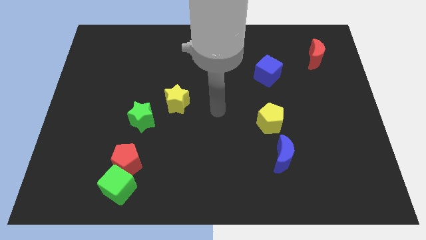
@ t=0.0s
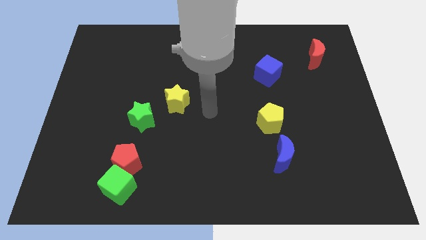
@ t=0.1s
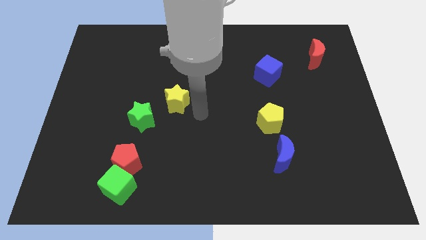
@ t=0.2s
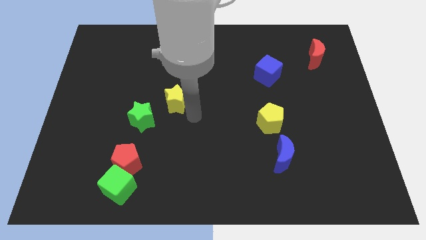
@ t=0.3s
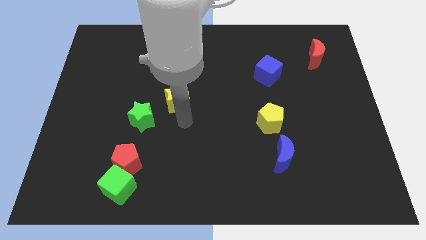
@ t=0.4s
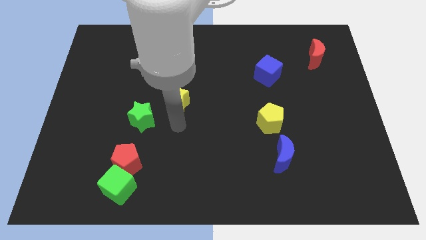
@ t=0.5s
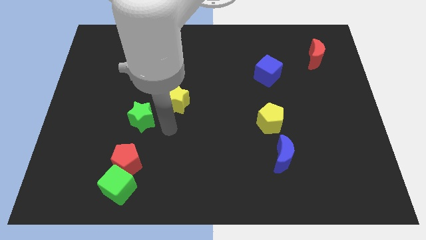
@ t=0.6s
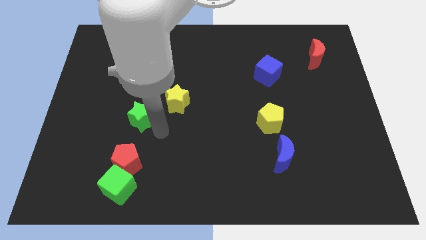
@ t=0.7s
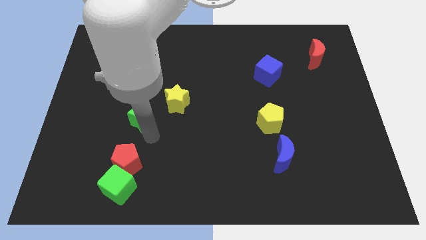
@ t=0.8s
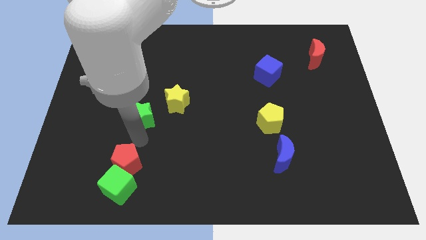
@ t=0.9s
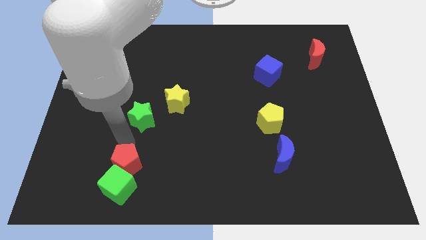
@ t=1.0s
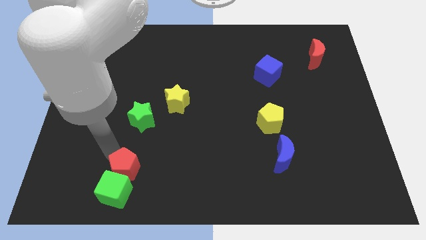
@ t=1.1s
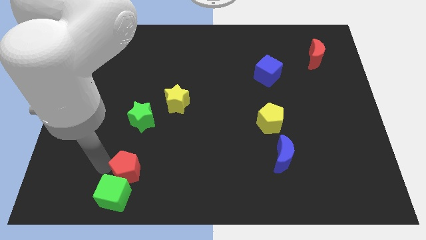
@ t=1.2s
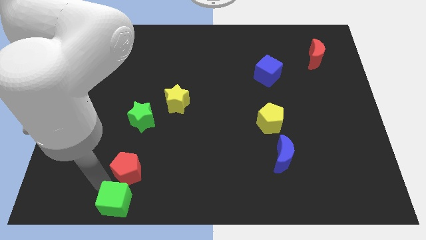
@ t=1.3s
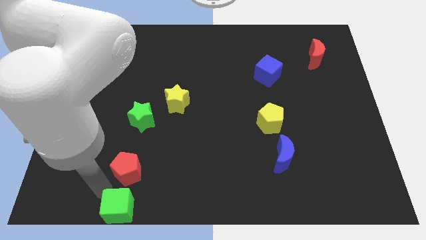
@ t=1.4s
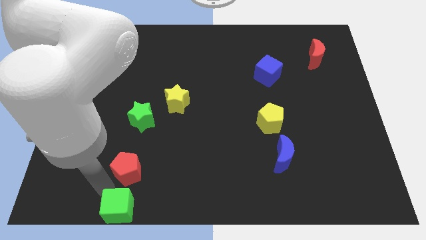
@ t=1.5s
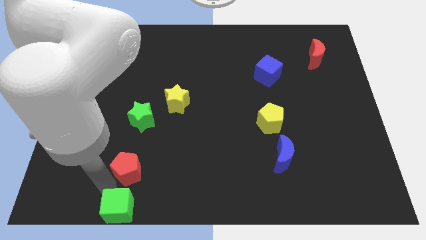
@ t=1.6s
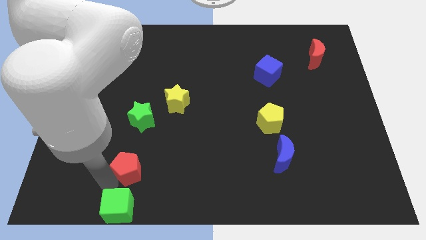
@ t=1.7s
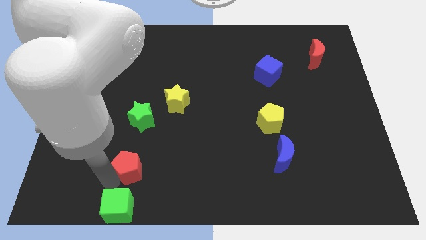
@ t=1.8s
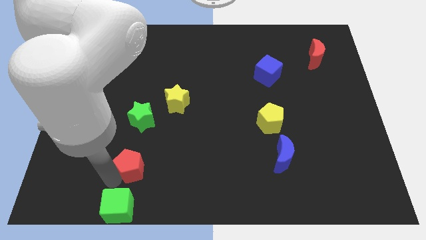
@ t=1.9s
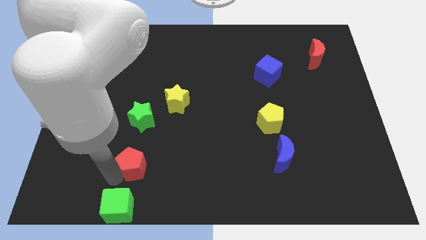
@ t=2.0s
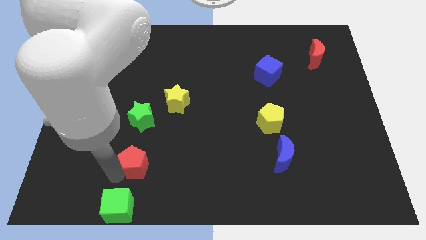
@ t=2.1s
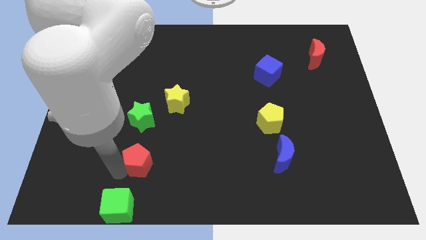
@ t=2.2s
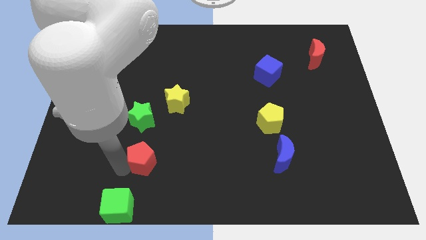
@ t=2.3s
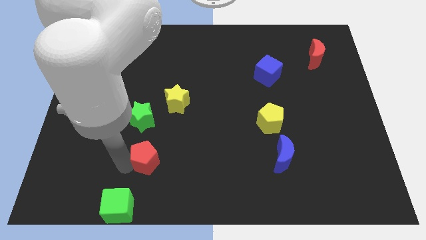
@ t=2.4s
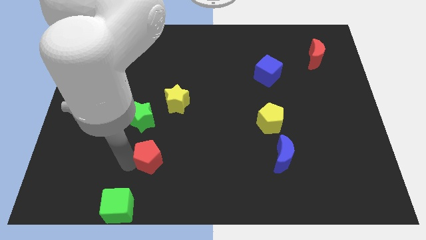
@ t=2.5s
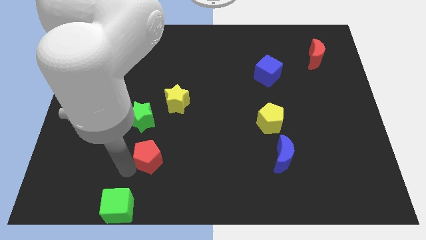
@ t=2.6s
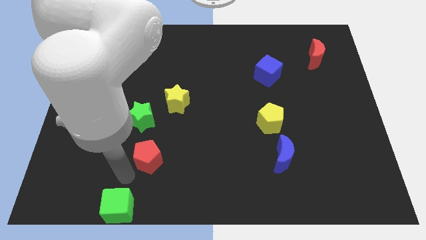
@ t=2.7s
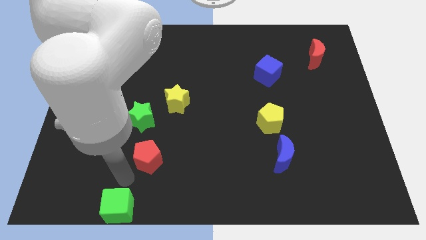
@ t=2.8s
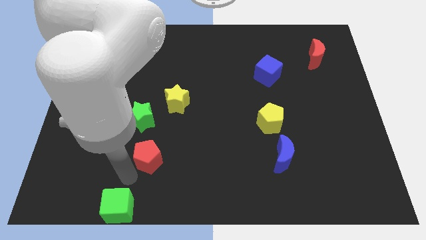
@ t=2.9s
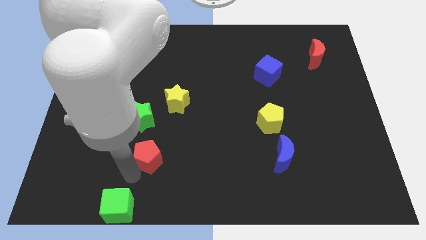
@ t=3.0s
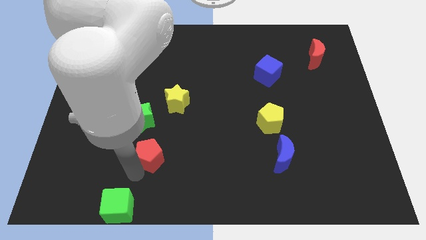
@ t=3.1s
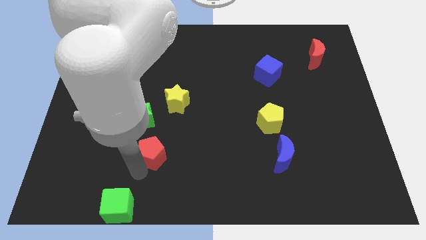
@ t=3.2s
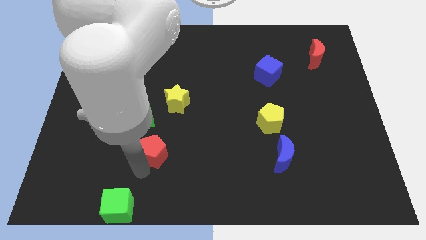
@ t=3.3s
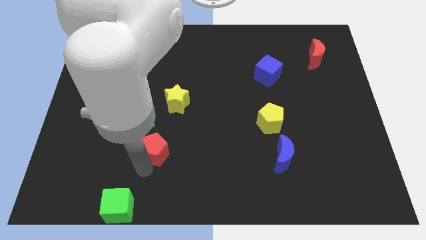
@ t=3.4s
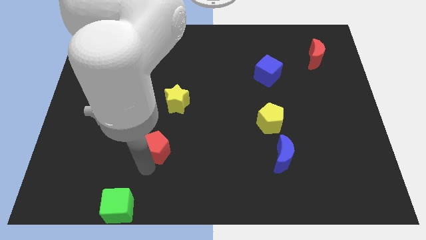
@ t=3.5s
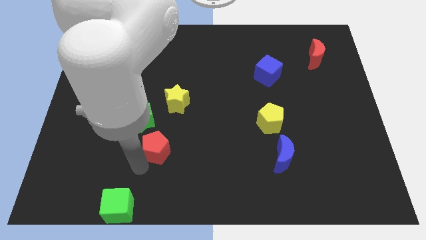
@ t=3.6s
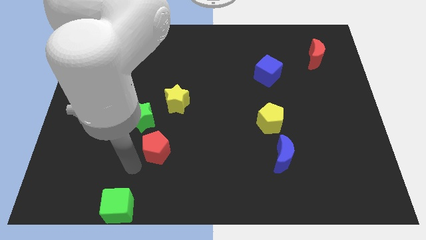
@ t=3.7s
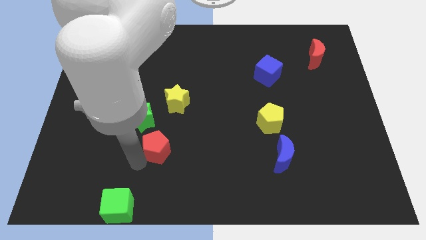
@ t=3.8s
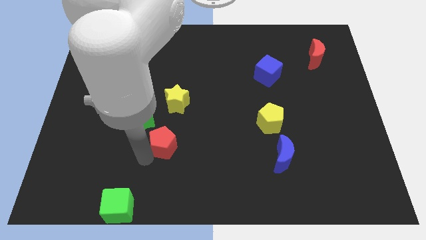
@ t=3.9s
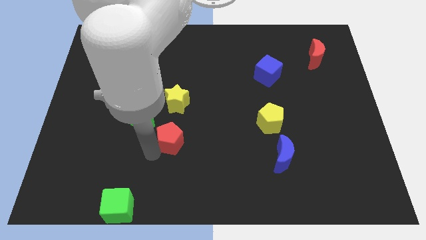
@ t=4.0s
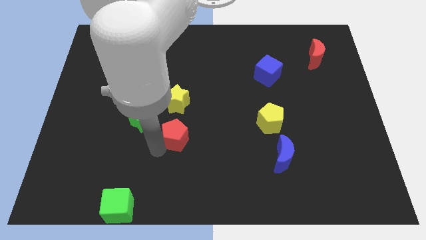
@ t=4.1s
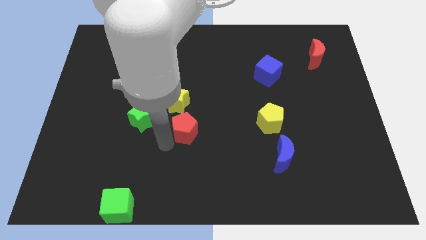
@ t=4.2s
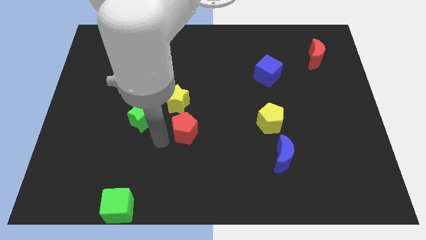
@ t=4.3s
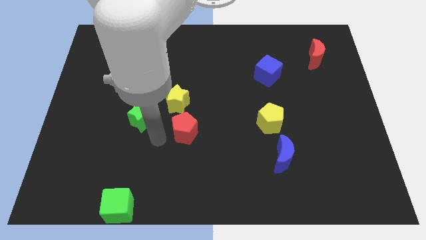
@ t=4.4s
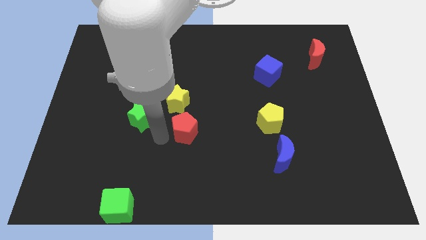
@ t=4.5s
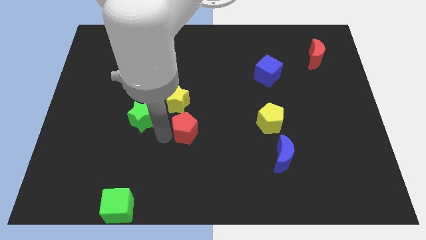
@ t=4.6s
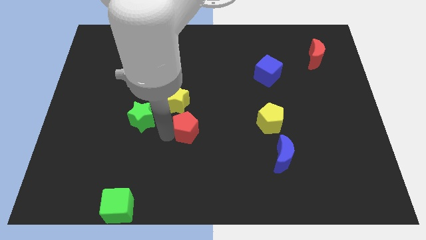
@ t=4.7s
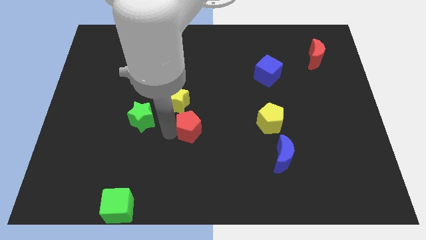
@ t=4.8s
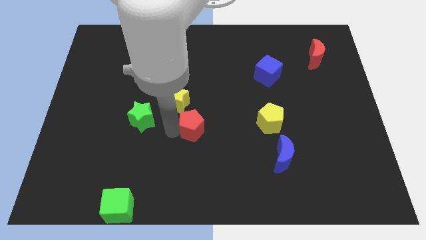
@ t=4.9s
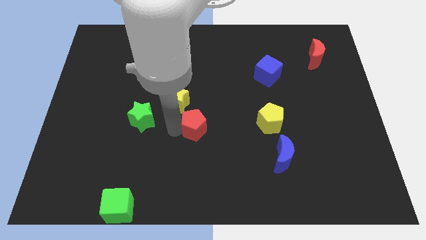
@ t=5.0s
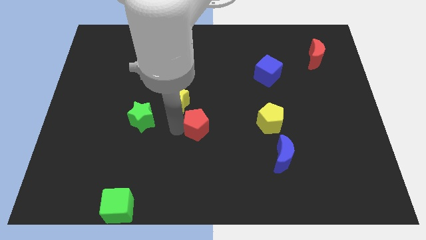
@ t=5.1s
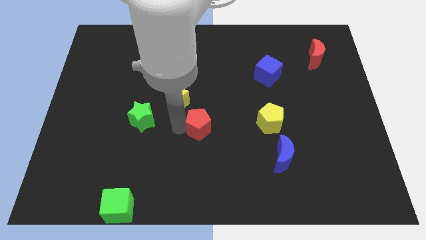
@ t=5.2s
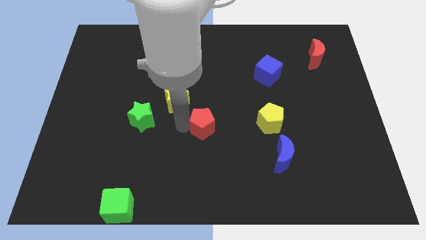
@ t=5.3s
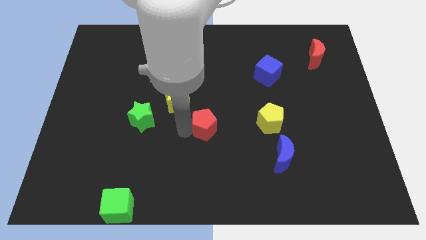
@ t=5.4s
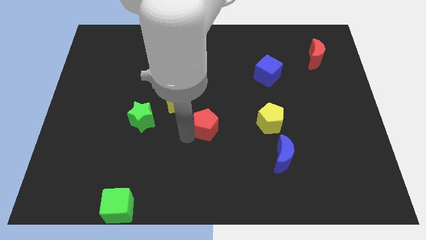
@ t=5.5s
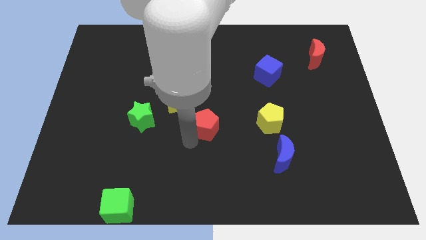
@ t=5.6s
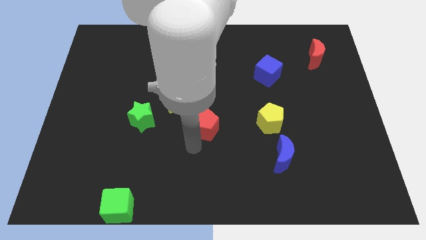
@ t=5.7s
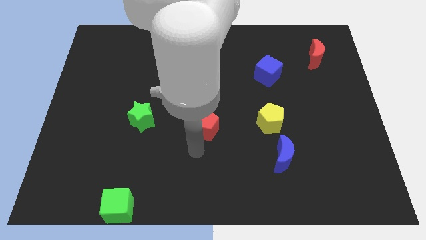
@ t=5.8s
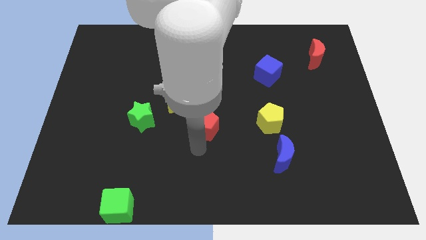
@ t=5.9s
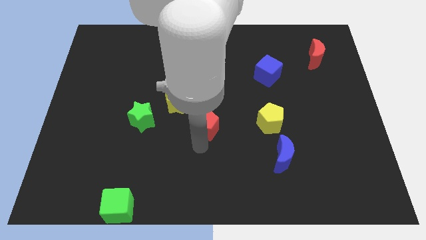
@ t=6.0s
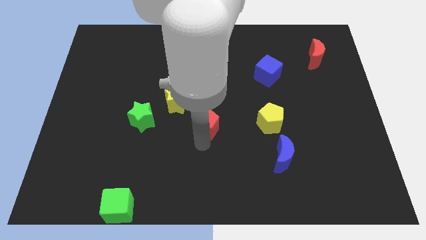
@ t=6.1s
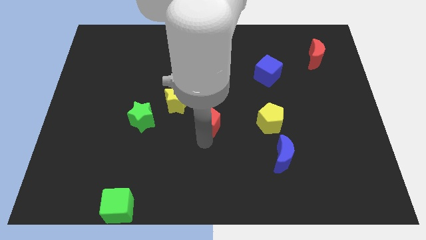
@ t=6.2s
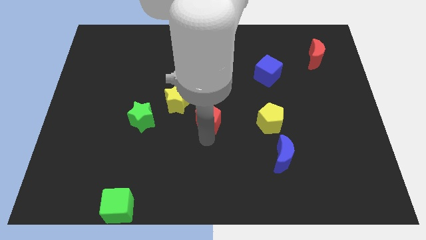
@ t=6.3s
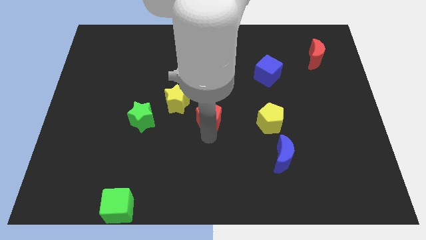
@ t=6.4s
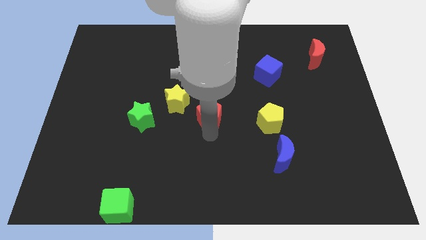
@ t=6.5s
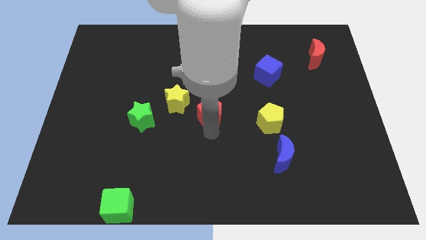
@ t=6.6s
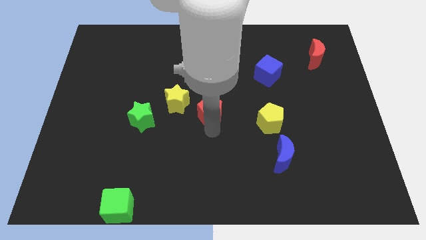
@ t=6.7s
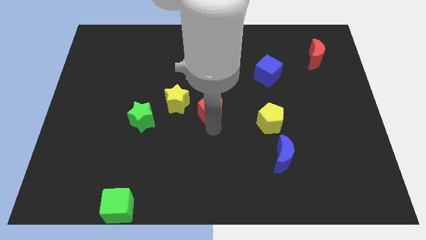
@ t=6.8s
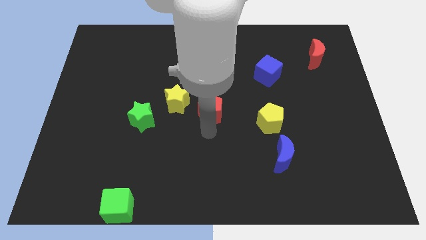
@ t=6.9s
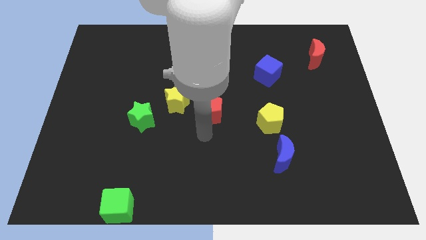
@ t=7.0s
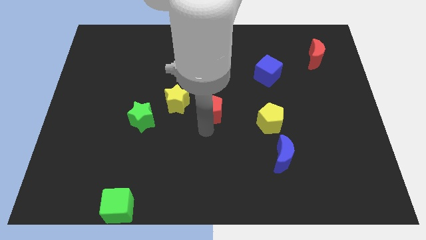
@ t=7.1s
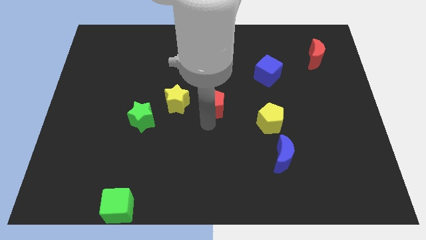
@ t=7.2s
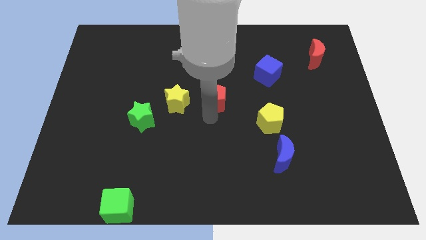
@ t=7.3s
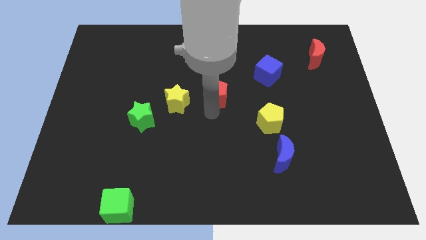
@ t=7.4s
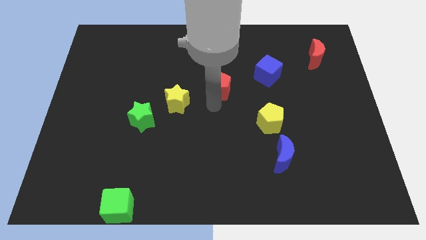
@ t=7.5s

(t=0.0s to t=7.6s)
put the red pentagon to the left of the blue cube
